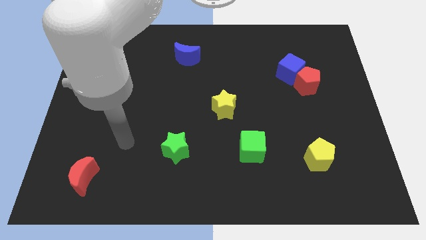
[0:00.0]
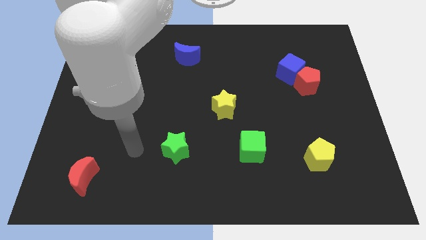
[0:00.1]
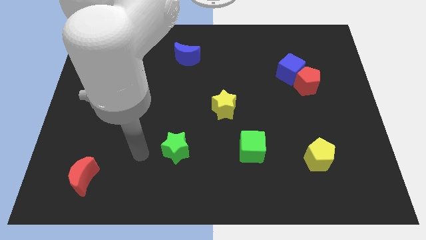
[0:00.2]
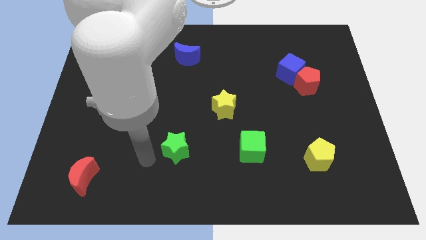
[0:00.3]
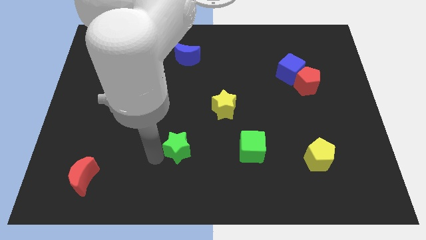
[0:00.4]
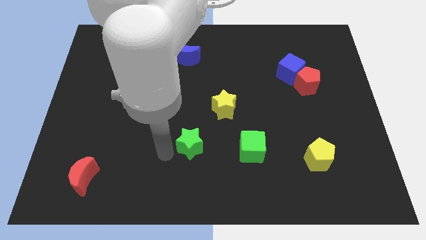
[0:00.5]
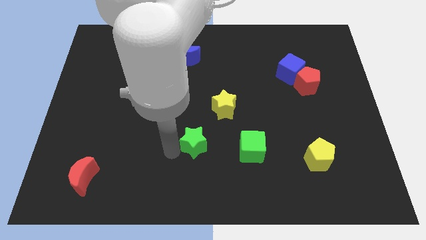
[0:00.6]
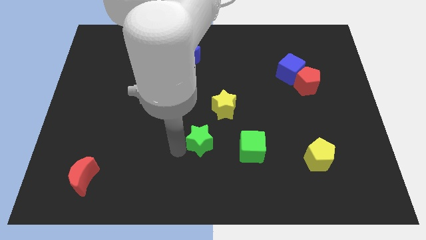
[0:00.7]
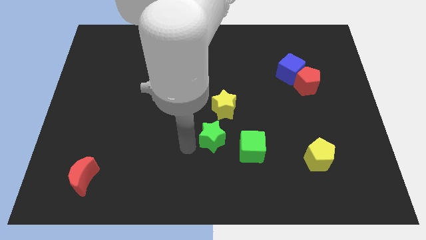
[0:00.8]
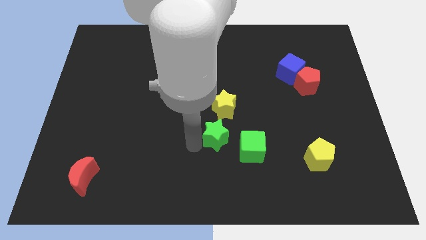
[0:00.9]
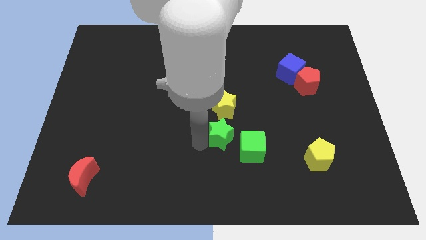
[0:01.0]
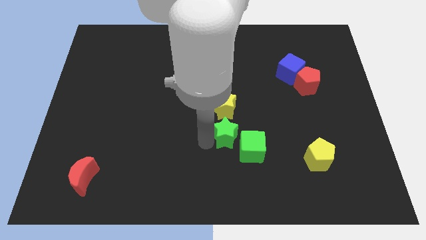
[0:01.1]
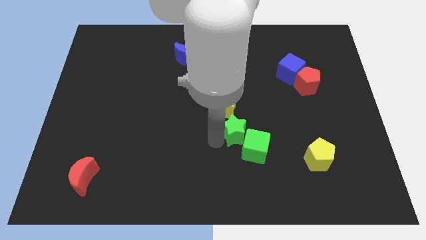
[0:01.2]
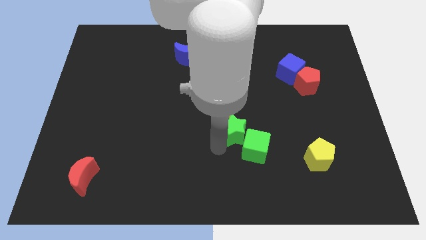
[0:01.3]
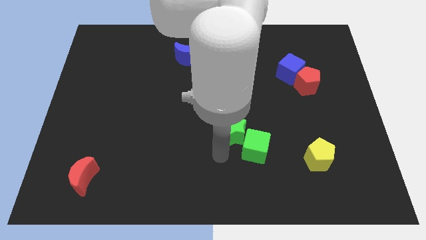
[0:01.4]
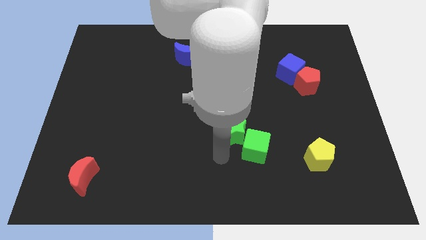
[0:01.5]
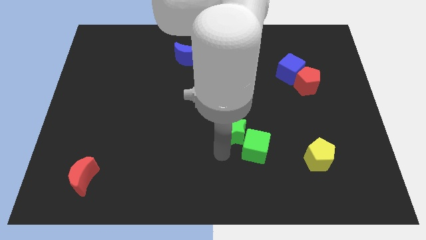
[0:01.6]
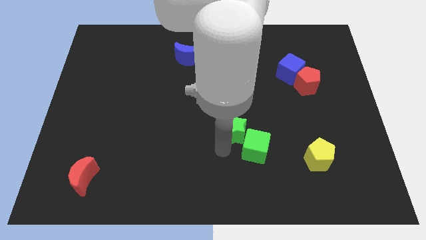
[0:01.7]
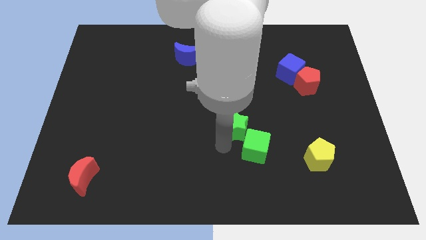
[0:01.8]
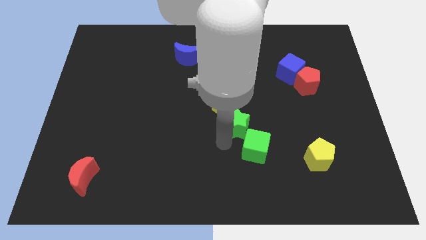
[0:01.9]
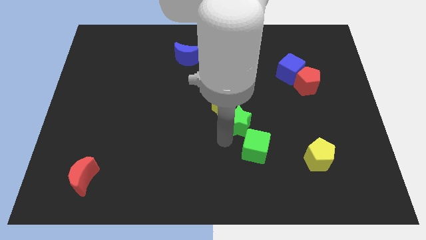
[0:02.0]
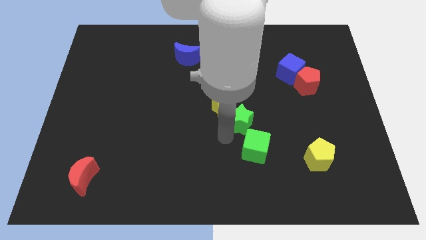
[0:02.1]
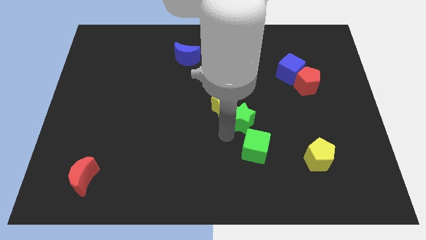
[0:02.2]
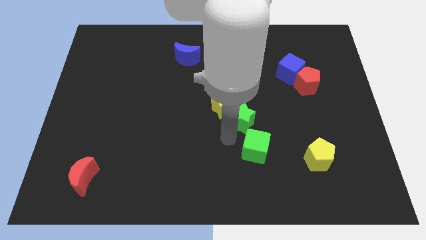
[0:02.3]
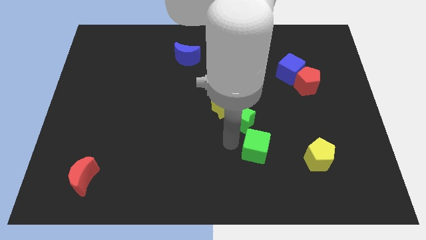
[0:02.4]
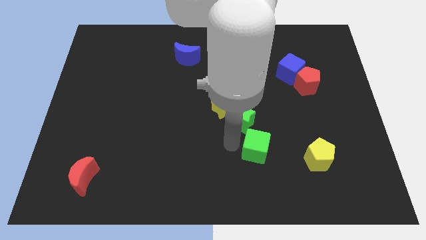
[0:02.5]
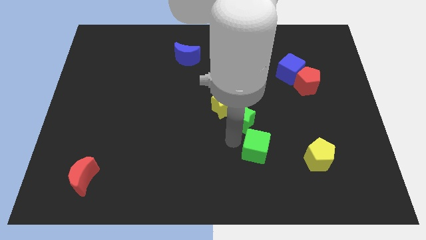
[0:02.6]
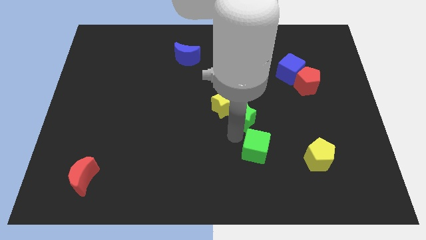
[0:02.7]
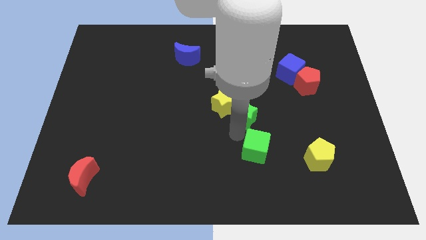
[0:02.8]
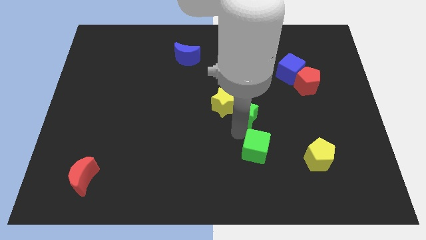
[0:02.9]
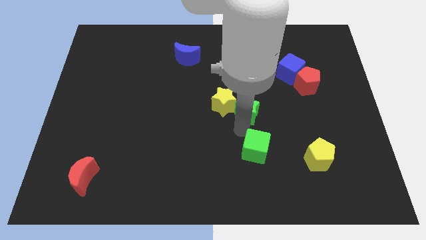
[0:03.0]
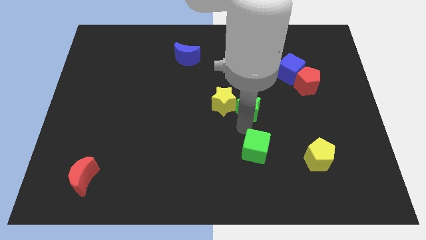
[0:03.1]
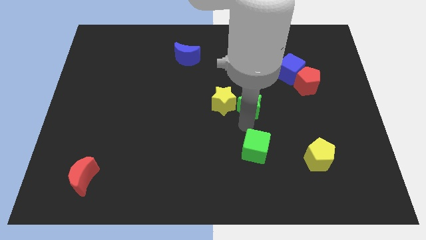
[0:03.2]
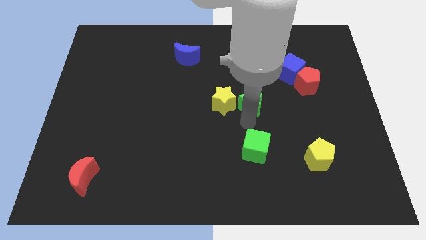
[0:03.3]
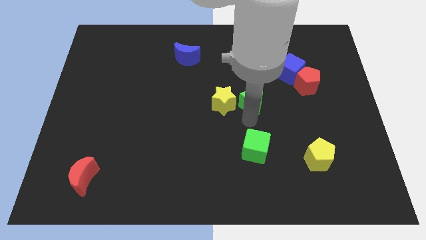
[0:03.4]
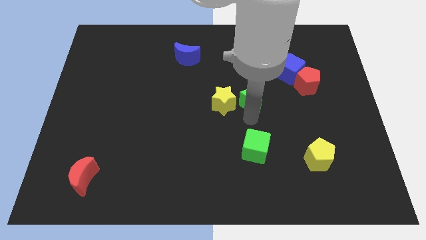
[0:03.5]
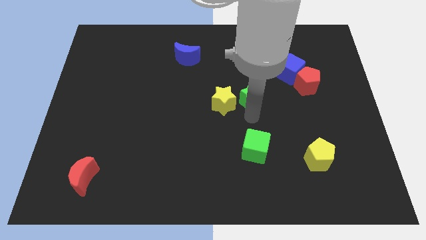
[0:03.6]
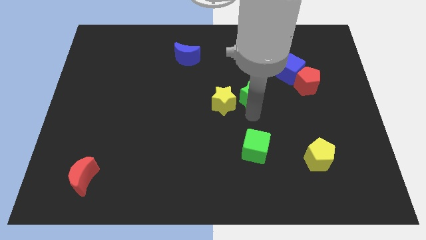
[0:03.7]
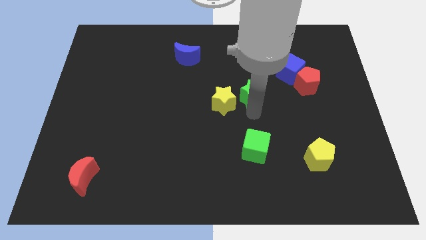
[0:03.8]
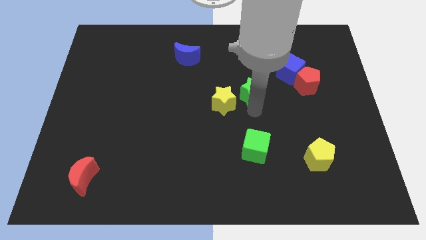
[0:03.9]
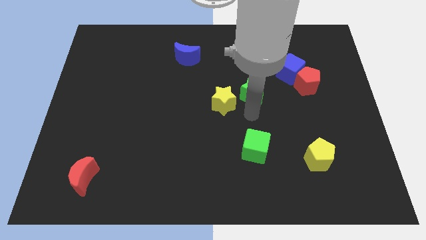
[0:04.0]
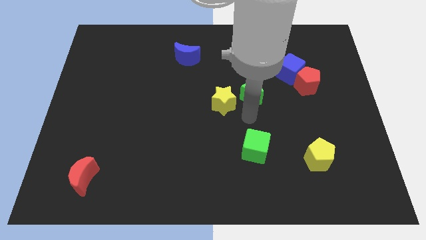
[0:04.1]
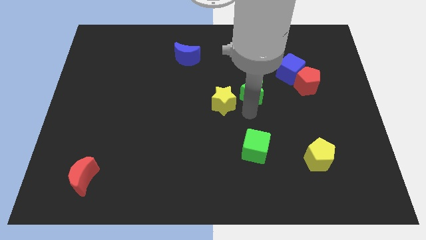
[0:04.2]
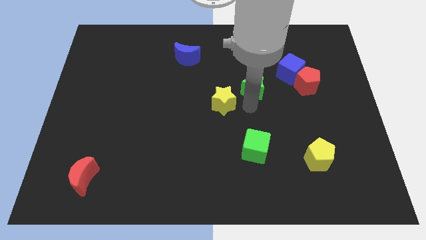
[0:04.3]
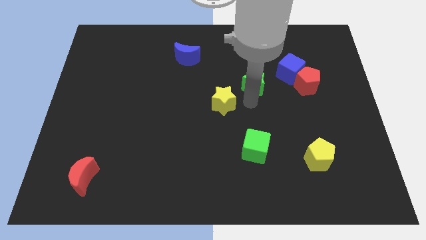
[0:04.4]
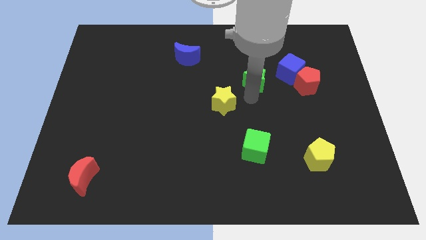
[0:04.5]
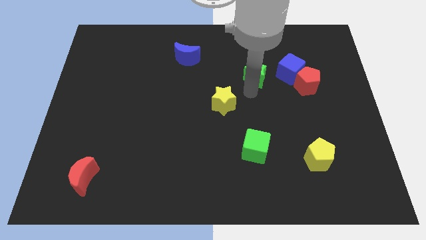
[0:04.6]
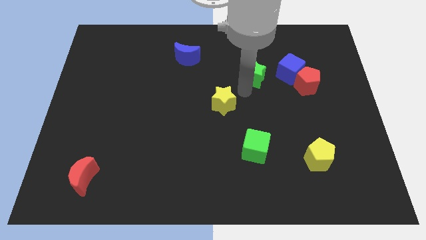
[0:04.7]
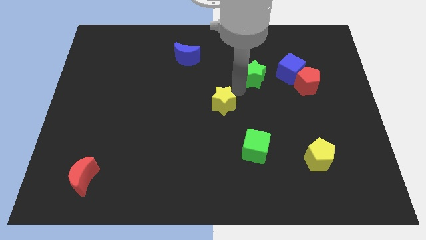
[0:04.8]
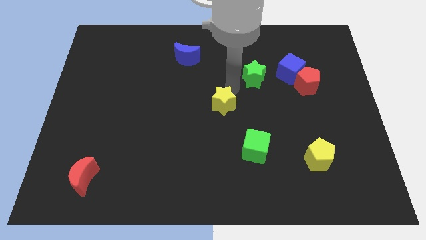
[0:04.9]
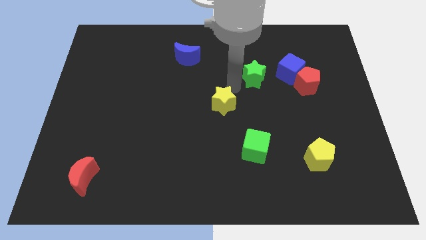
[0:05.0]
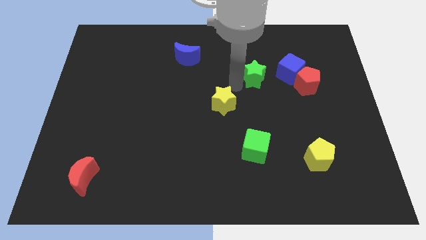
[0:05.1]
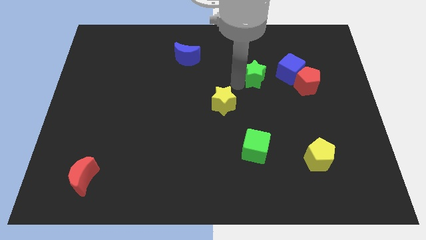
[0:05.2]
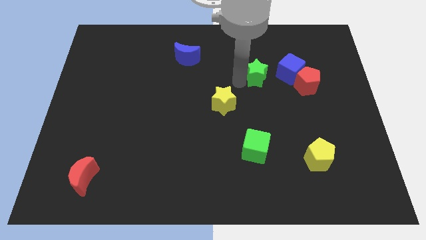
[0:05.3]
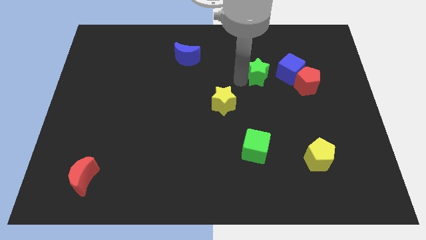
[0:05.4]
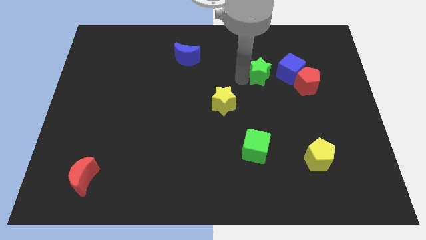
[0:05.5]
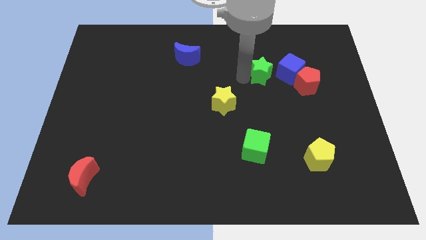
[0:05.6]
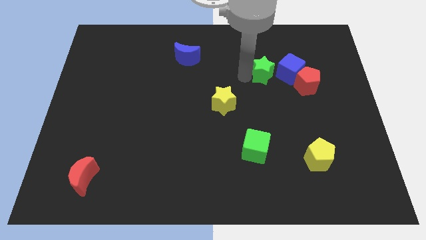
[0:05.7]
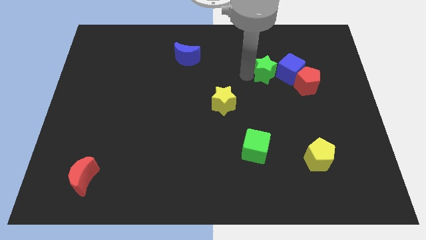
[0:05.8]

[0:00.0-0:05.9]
slide the green star to the top left of the red pentagon

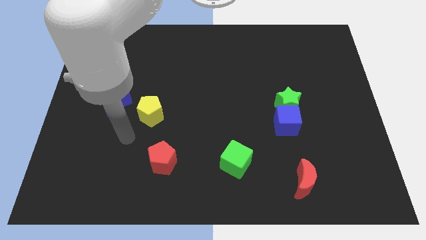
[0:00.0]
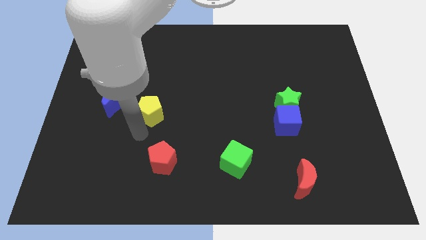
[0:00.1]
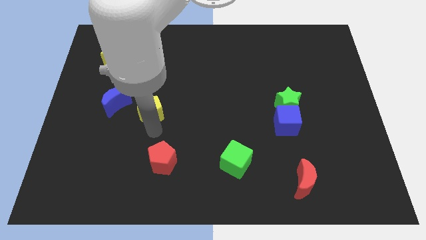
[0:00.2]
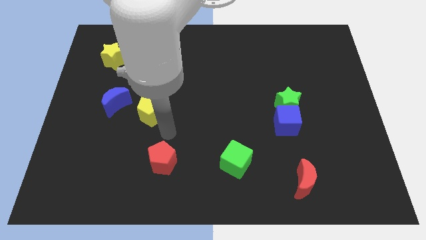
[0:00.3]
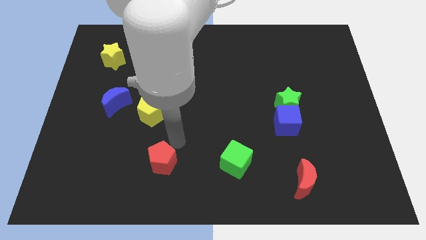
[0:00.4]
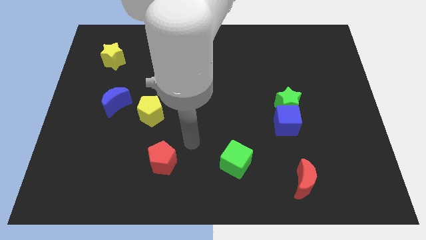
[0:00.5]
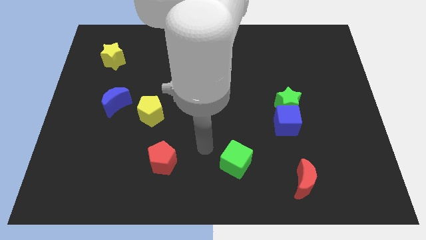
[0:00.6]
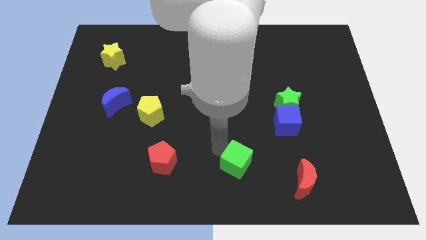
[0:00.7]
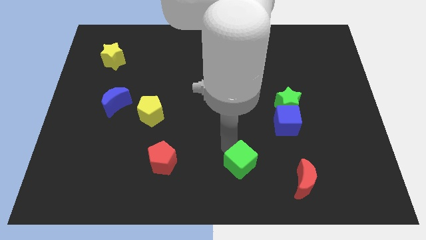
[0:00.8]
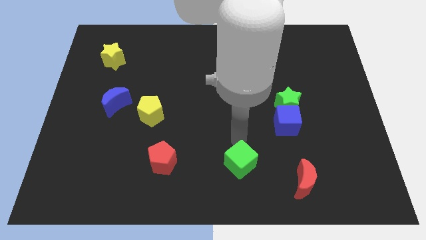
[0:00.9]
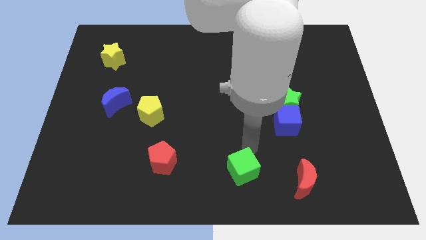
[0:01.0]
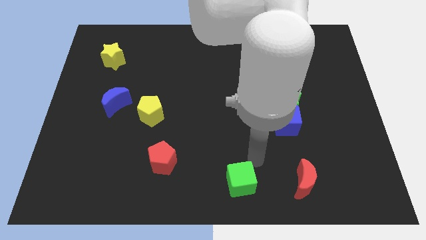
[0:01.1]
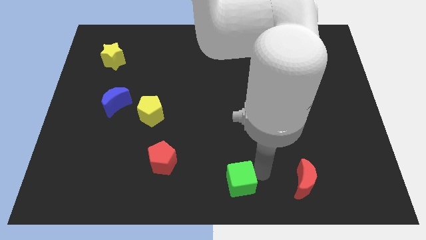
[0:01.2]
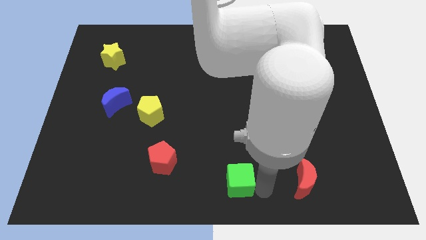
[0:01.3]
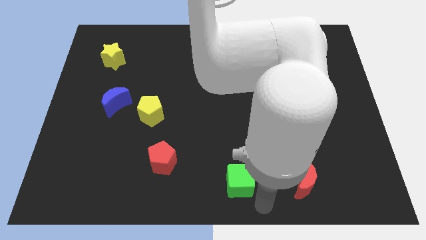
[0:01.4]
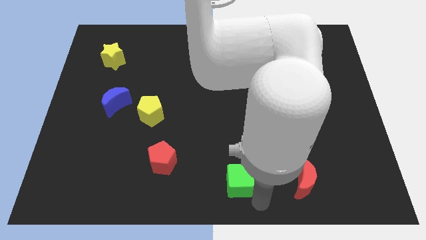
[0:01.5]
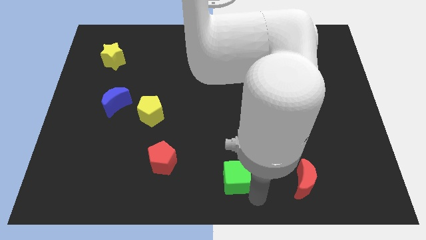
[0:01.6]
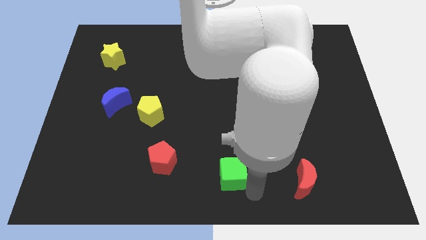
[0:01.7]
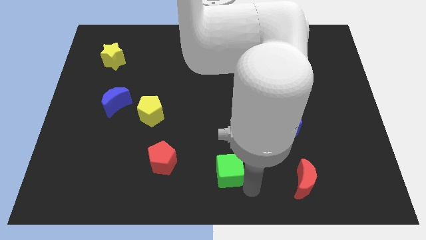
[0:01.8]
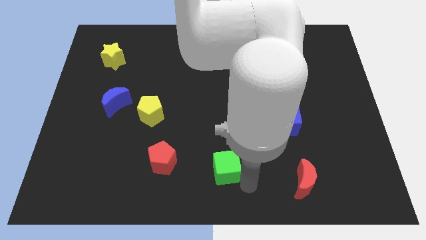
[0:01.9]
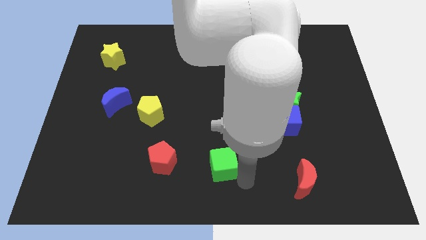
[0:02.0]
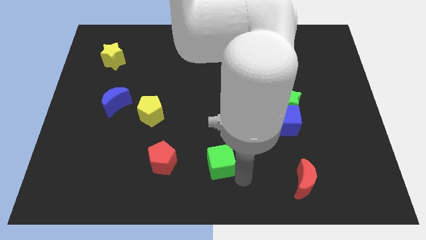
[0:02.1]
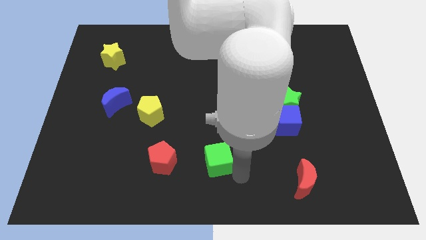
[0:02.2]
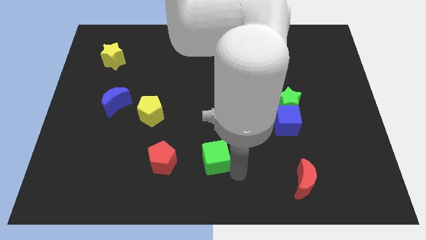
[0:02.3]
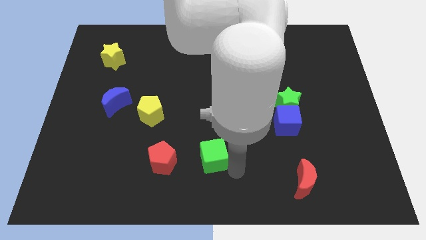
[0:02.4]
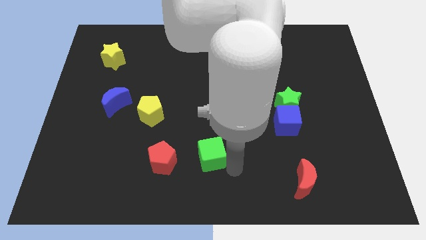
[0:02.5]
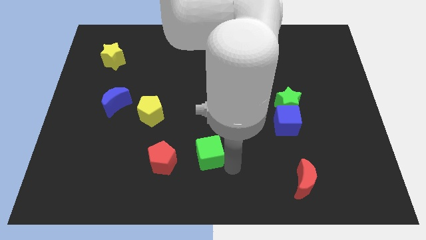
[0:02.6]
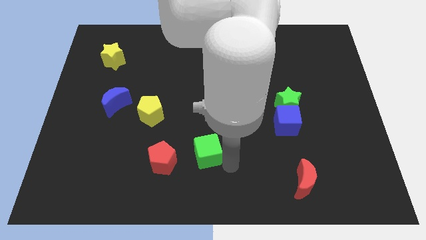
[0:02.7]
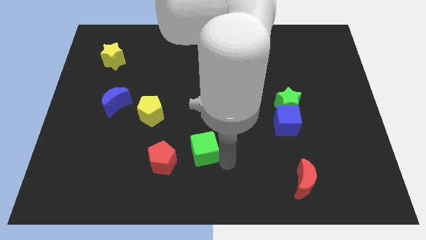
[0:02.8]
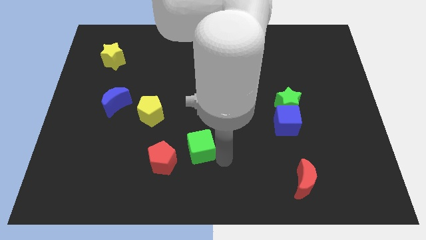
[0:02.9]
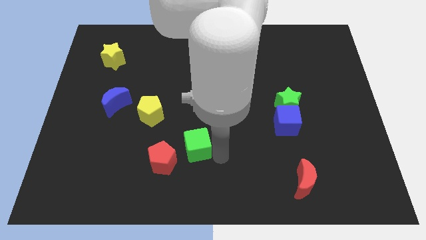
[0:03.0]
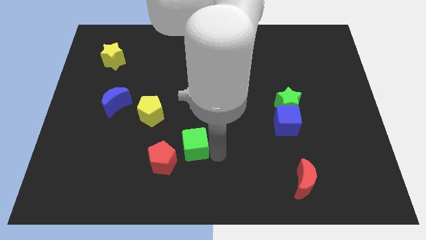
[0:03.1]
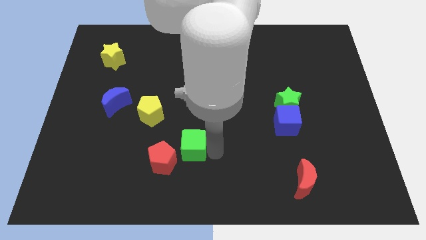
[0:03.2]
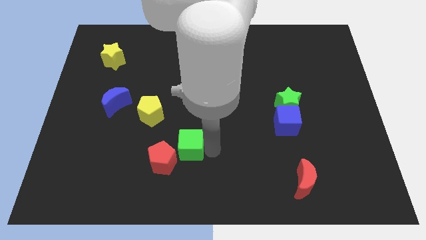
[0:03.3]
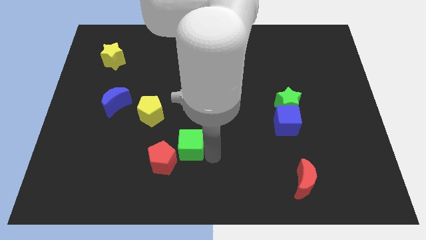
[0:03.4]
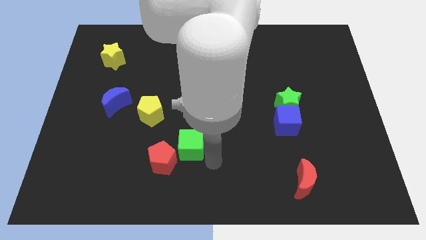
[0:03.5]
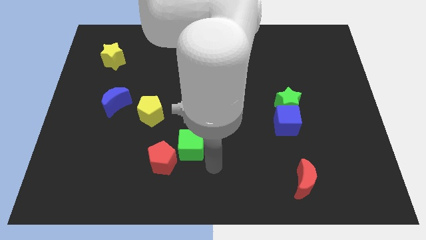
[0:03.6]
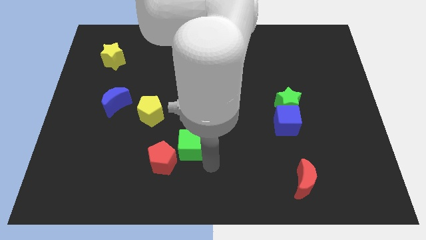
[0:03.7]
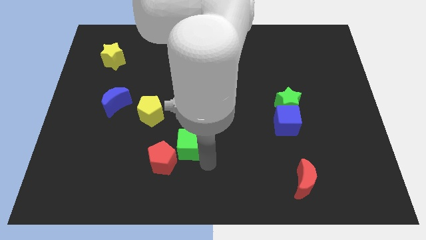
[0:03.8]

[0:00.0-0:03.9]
move the green cube to the bottom right of the yellow pentagon
